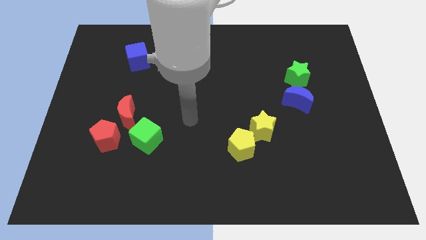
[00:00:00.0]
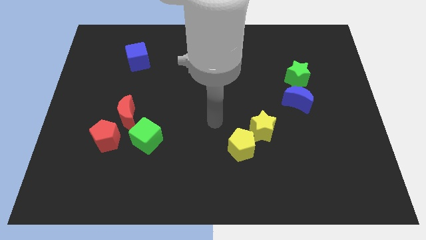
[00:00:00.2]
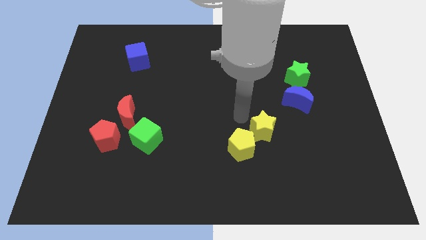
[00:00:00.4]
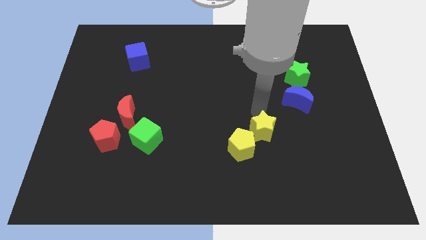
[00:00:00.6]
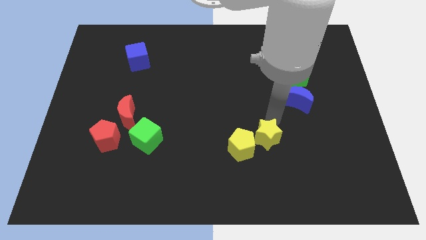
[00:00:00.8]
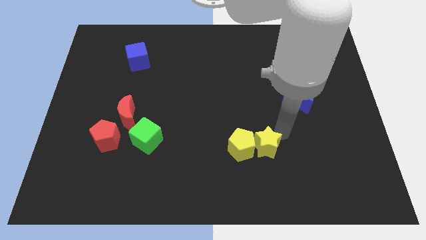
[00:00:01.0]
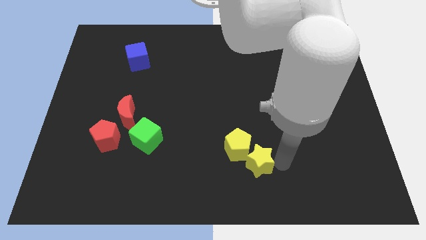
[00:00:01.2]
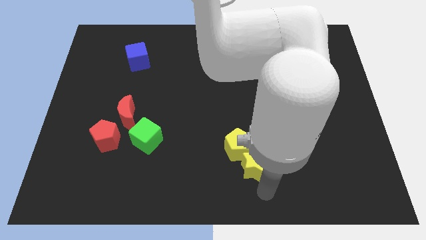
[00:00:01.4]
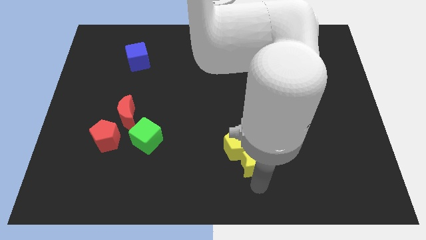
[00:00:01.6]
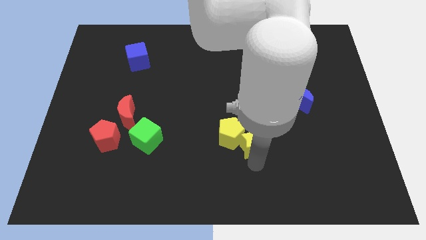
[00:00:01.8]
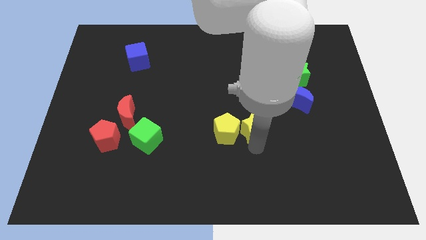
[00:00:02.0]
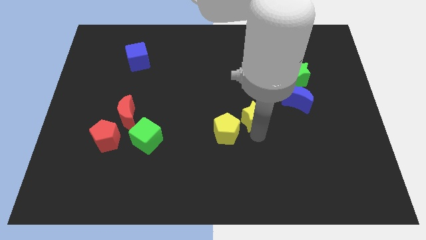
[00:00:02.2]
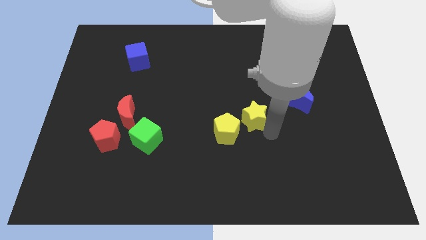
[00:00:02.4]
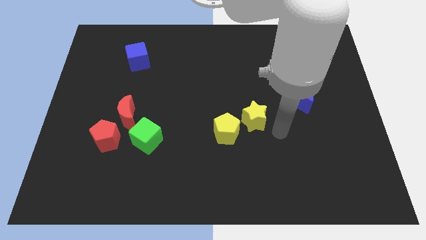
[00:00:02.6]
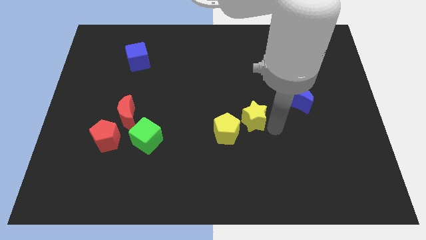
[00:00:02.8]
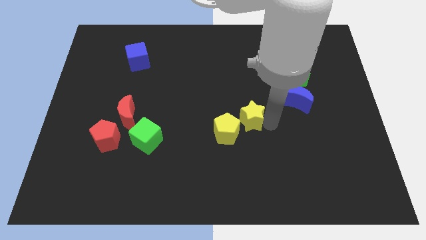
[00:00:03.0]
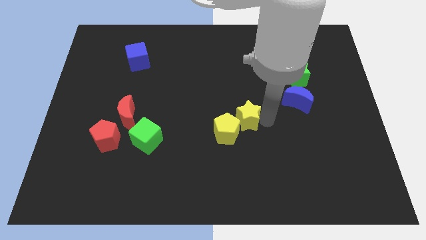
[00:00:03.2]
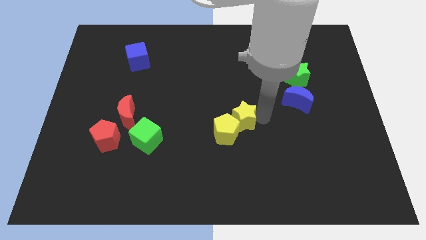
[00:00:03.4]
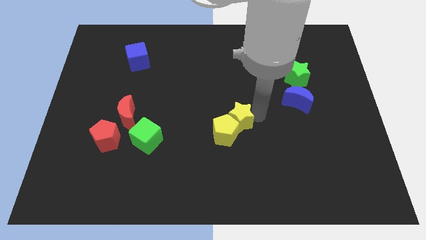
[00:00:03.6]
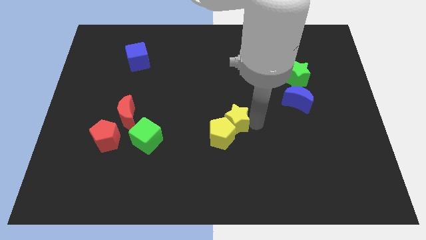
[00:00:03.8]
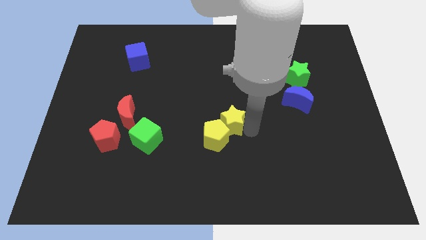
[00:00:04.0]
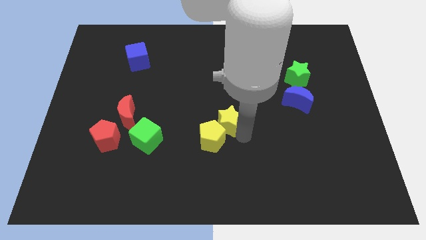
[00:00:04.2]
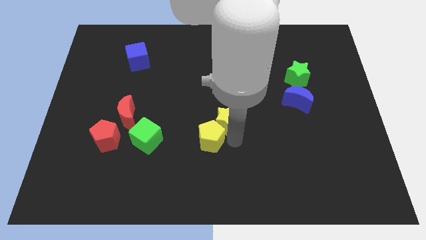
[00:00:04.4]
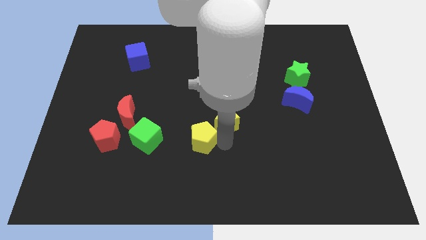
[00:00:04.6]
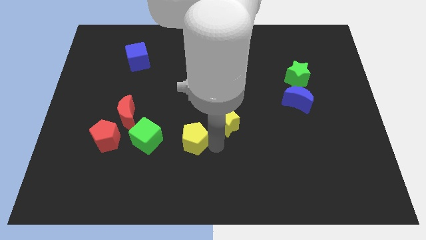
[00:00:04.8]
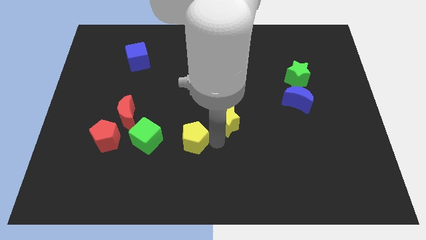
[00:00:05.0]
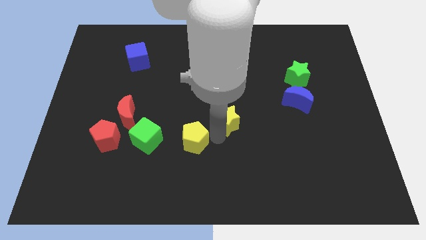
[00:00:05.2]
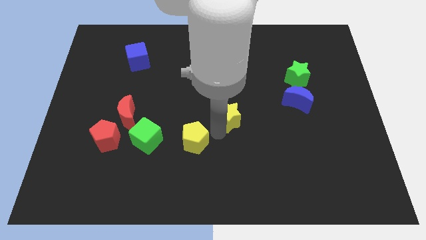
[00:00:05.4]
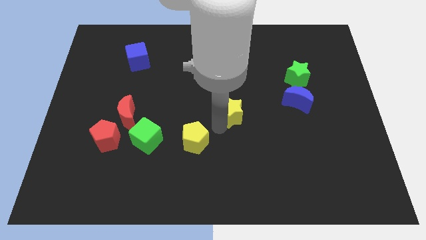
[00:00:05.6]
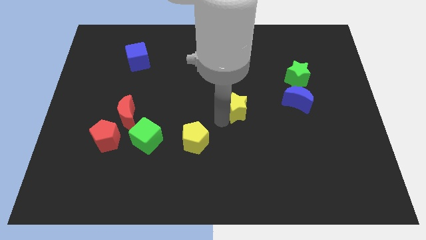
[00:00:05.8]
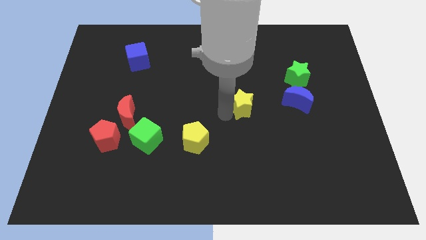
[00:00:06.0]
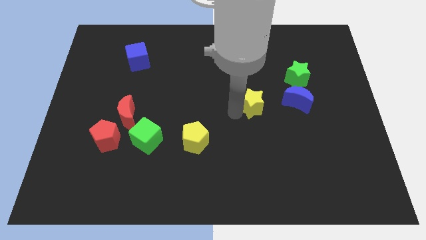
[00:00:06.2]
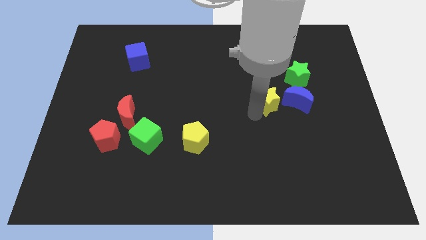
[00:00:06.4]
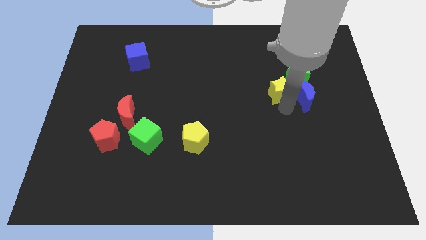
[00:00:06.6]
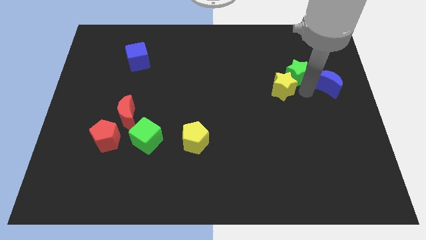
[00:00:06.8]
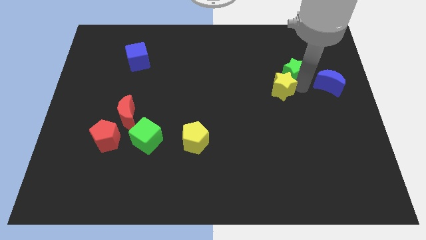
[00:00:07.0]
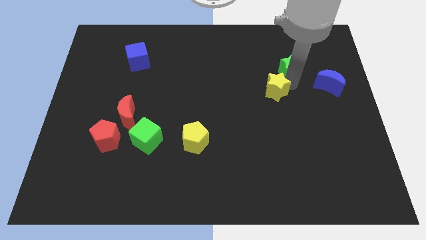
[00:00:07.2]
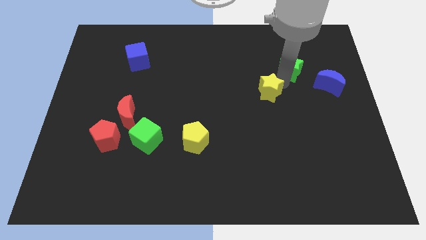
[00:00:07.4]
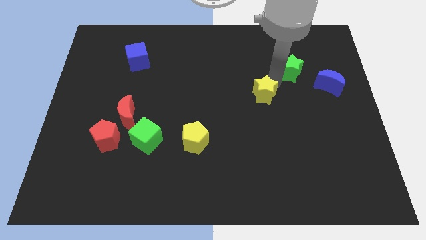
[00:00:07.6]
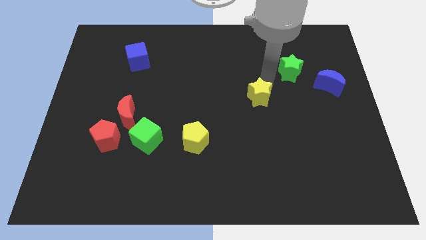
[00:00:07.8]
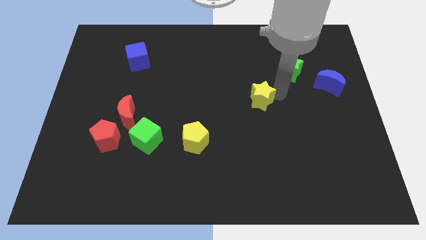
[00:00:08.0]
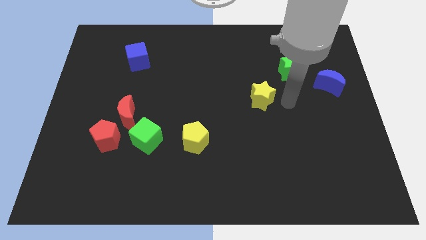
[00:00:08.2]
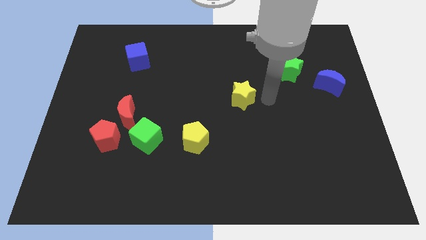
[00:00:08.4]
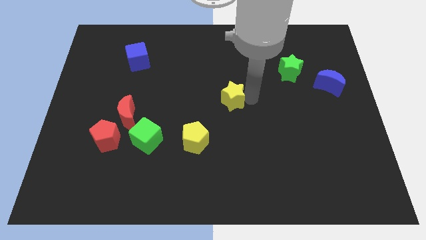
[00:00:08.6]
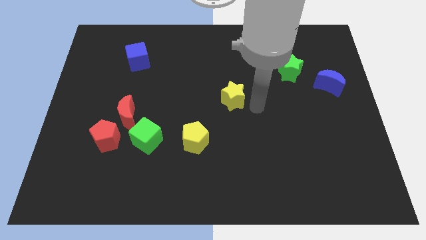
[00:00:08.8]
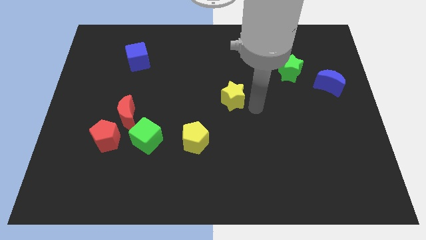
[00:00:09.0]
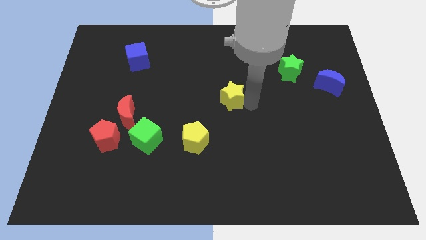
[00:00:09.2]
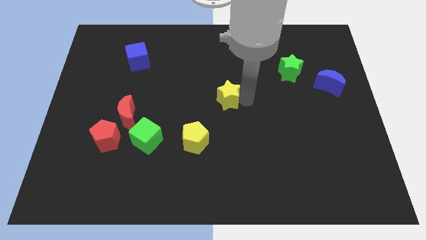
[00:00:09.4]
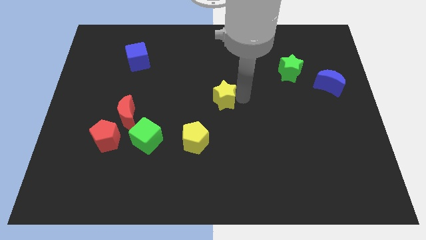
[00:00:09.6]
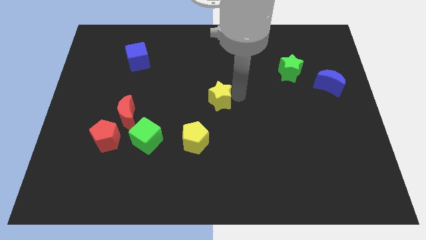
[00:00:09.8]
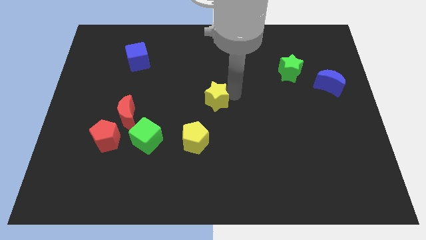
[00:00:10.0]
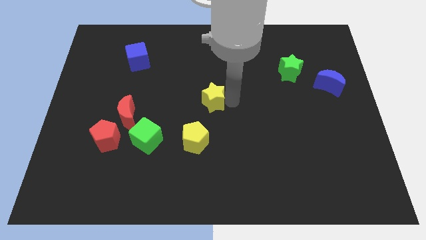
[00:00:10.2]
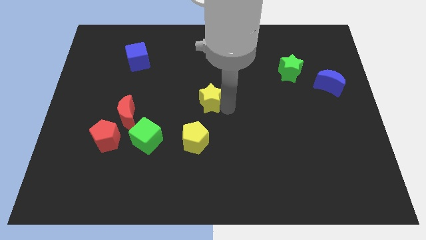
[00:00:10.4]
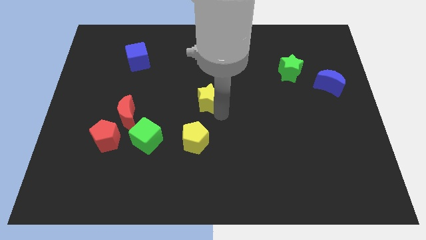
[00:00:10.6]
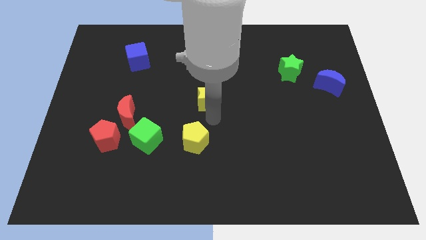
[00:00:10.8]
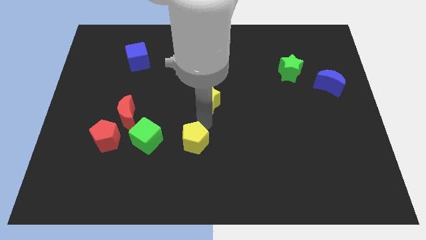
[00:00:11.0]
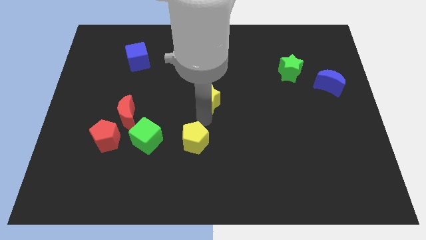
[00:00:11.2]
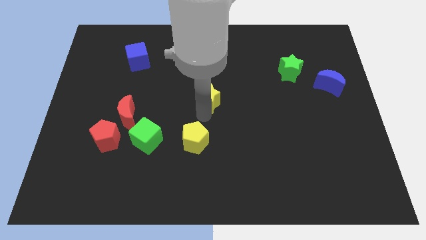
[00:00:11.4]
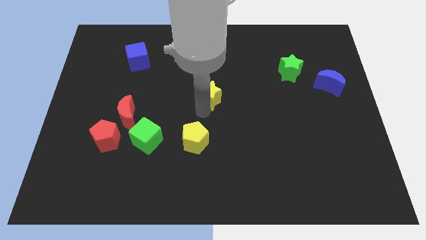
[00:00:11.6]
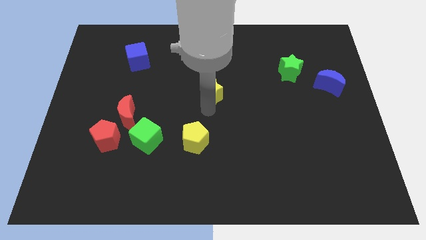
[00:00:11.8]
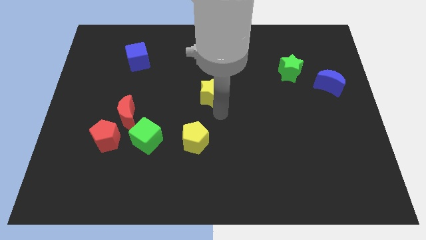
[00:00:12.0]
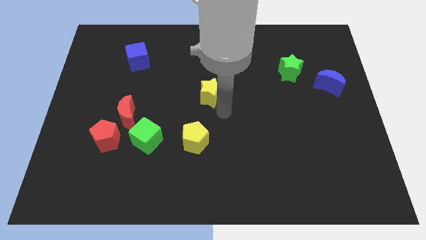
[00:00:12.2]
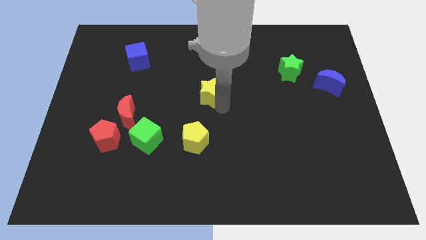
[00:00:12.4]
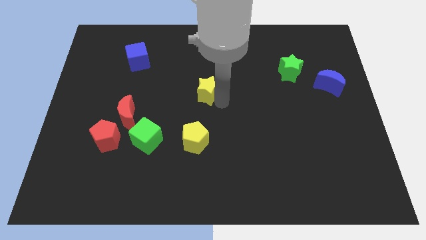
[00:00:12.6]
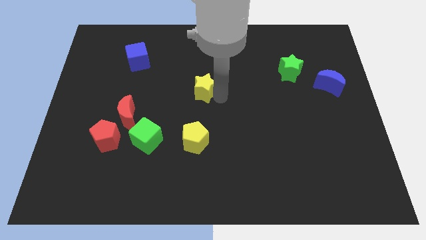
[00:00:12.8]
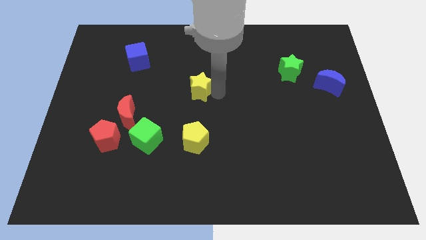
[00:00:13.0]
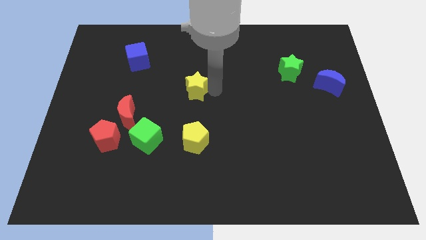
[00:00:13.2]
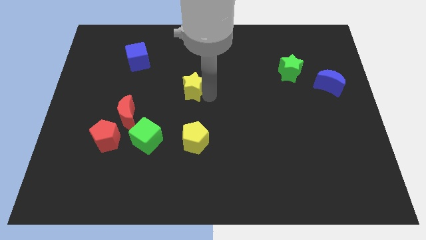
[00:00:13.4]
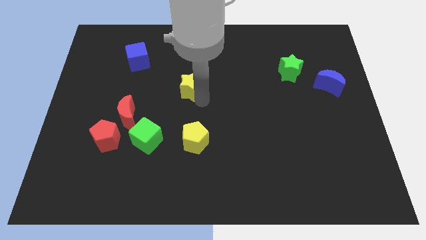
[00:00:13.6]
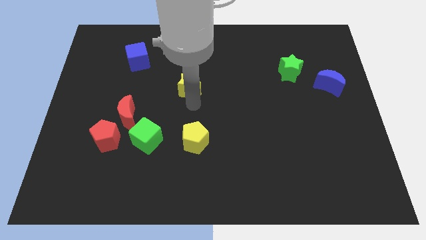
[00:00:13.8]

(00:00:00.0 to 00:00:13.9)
slide the yellow star upwards and left

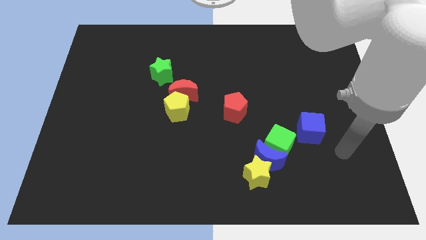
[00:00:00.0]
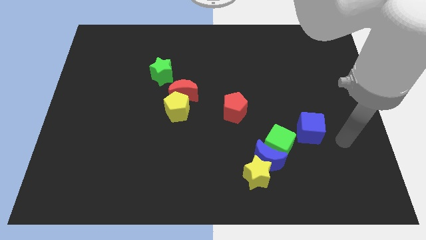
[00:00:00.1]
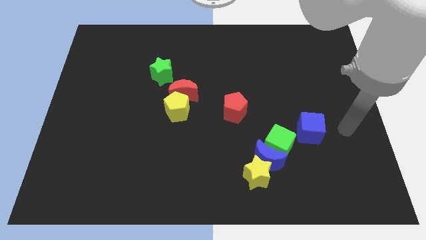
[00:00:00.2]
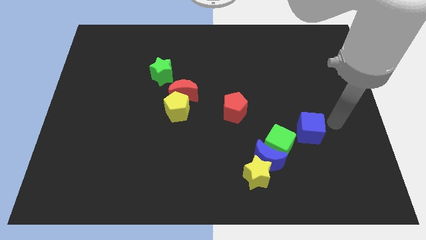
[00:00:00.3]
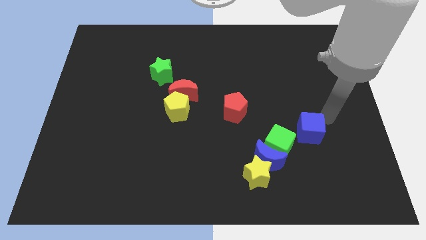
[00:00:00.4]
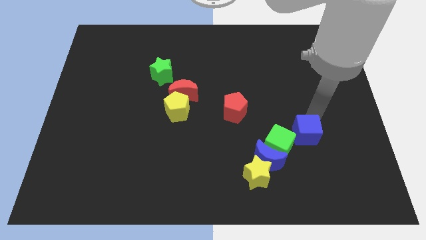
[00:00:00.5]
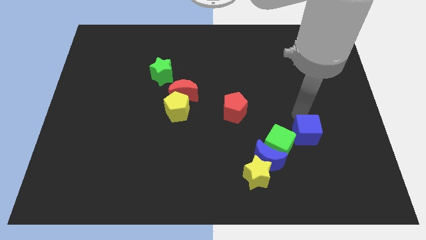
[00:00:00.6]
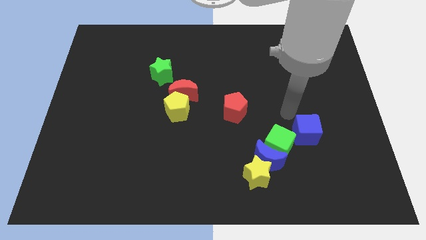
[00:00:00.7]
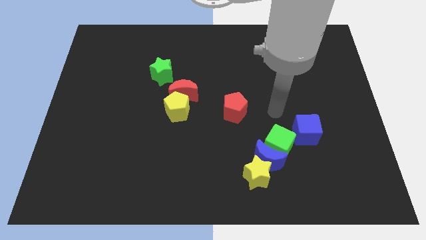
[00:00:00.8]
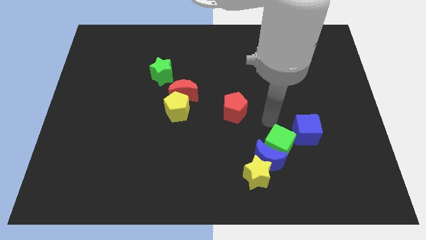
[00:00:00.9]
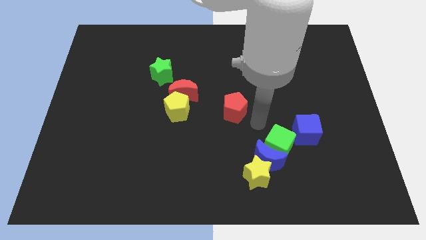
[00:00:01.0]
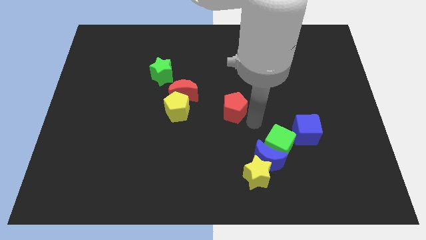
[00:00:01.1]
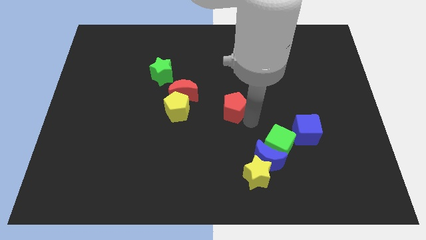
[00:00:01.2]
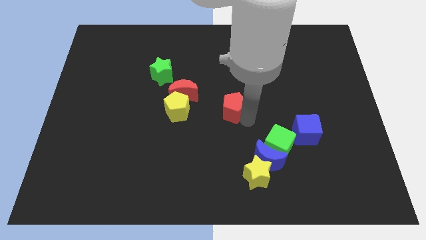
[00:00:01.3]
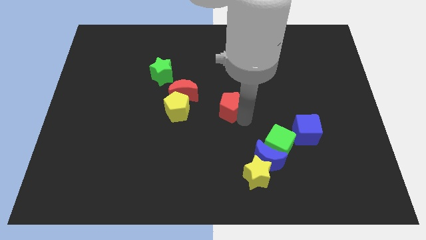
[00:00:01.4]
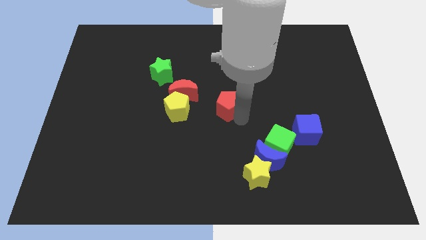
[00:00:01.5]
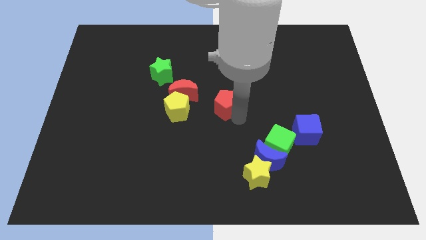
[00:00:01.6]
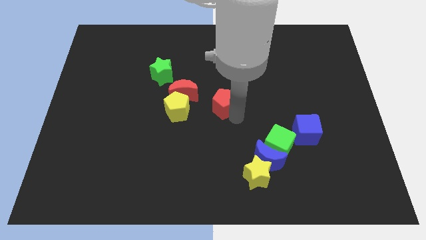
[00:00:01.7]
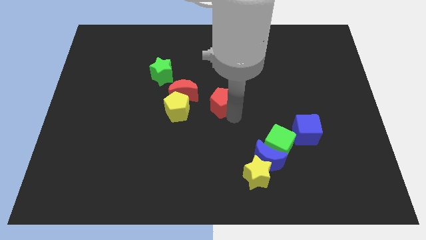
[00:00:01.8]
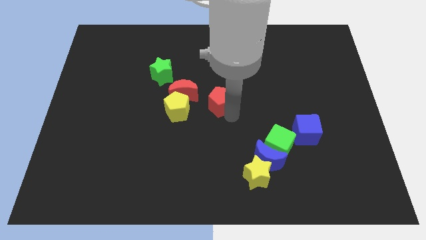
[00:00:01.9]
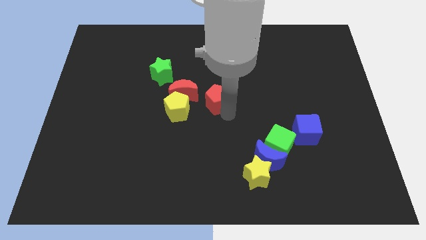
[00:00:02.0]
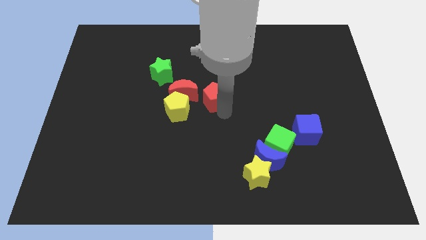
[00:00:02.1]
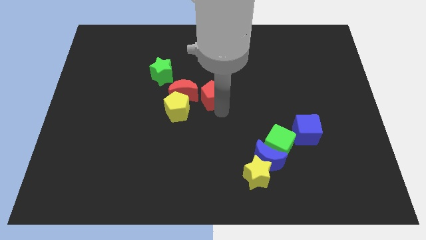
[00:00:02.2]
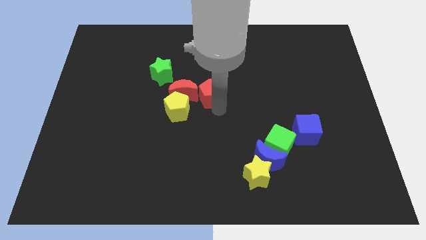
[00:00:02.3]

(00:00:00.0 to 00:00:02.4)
slide the red pentagon slightly diagonally up and to the left
